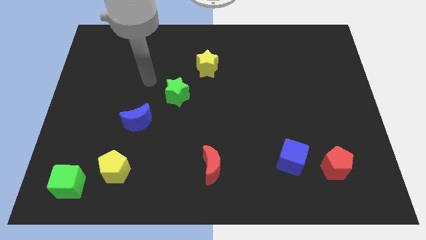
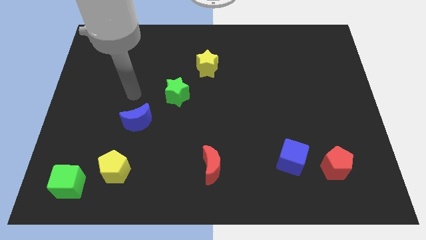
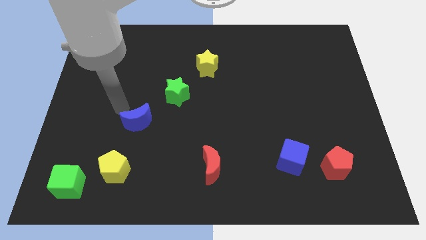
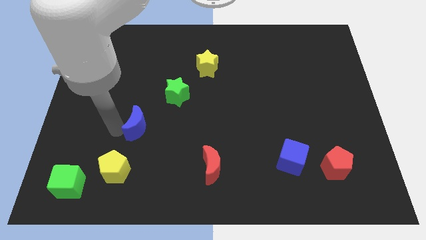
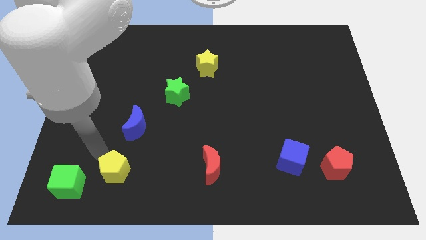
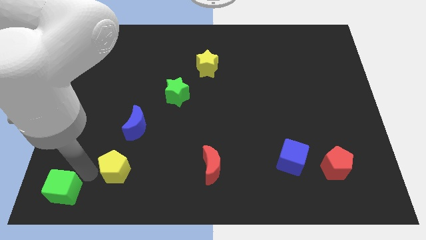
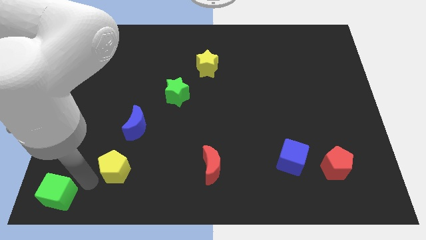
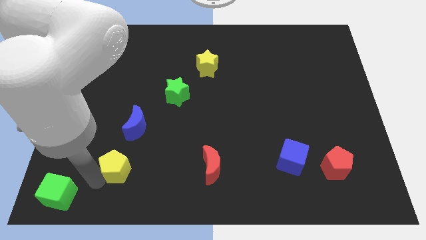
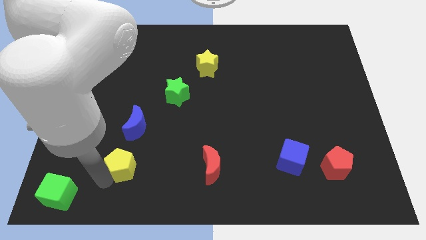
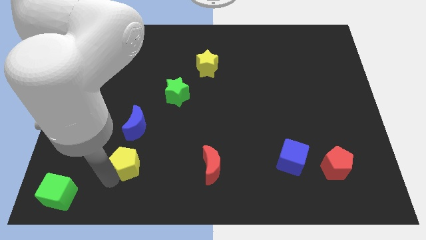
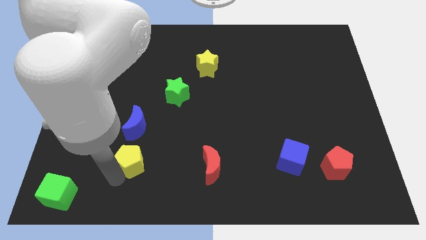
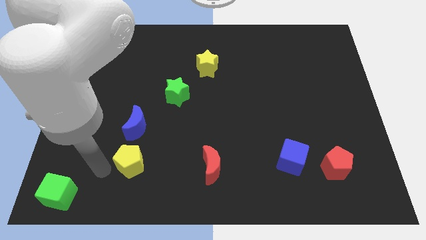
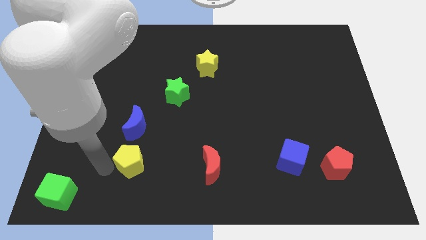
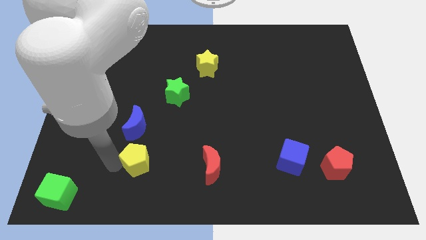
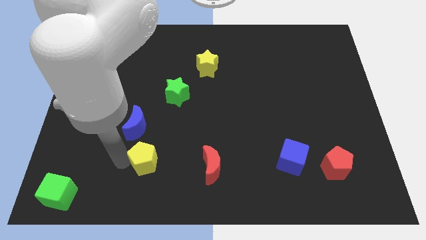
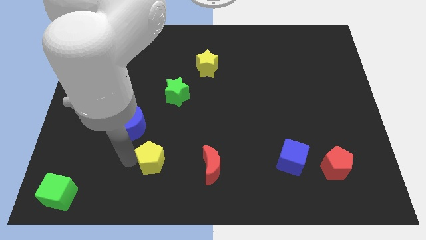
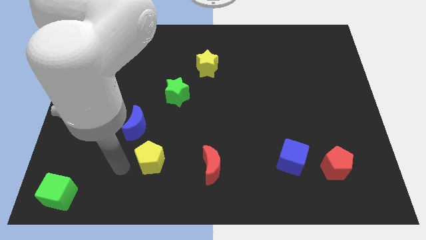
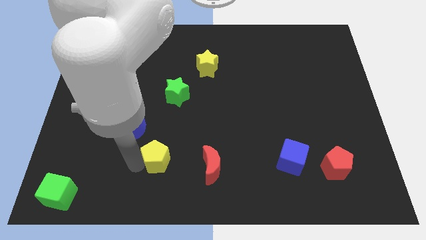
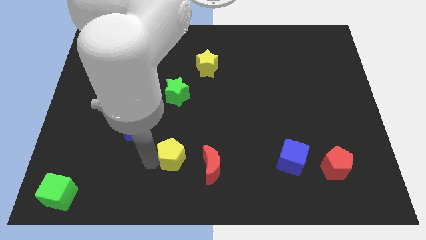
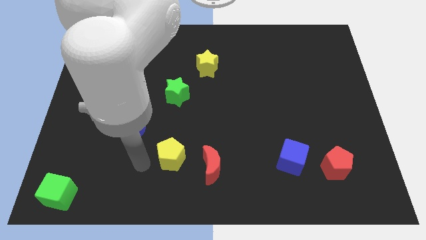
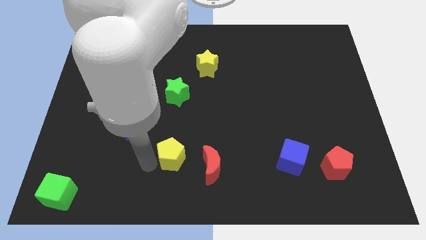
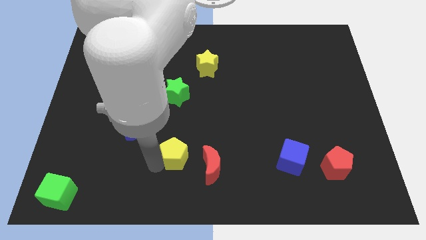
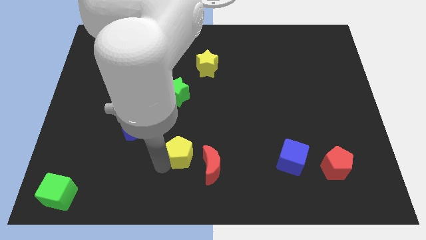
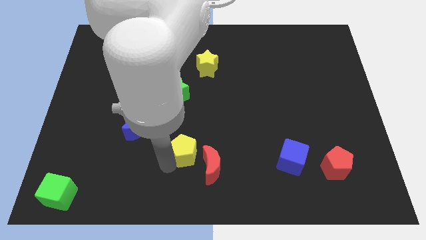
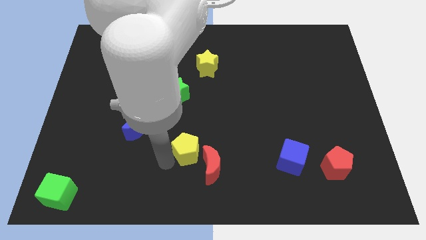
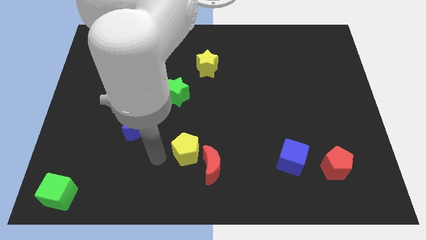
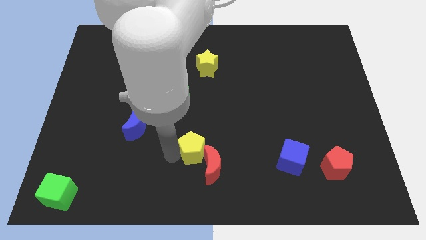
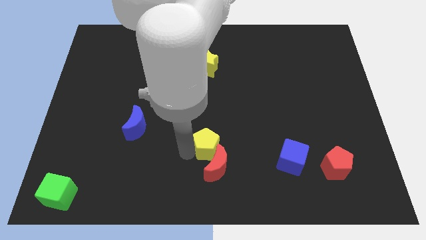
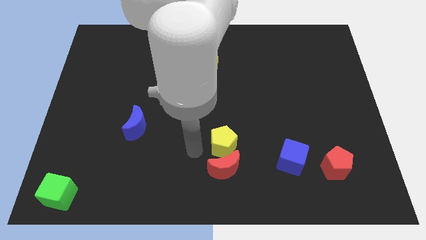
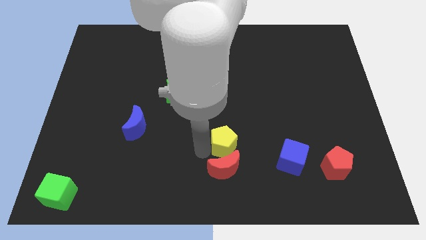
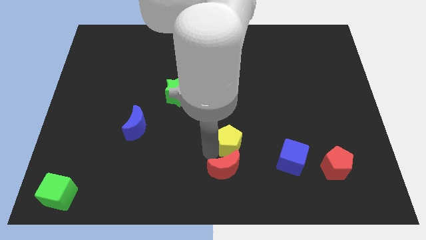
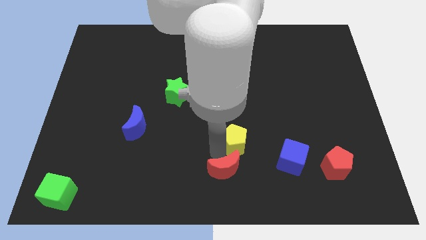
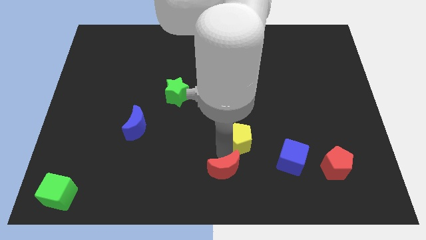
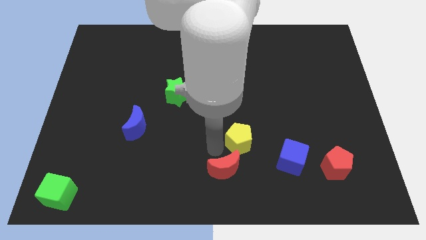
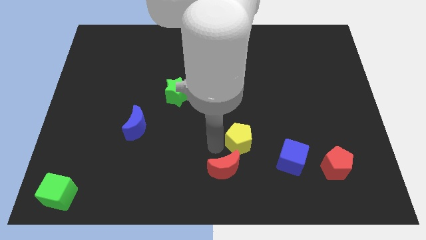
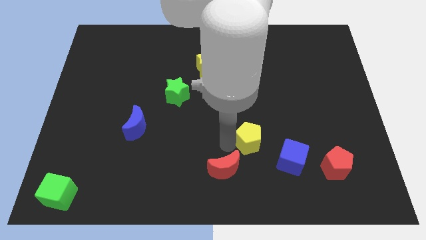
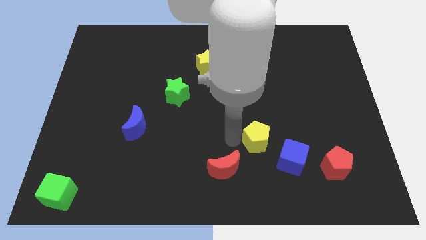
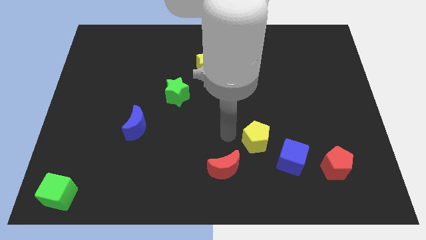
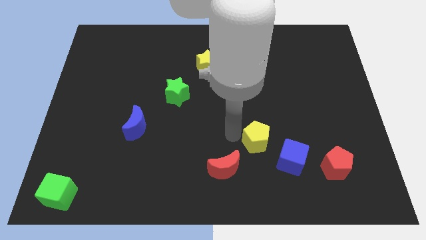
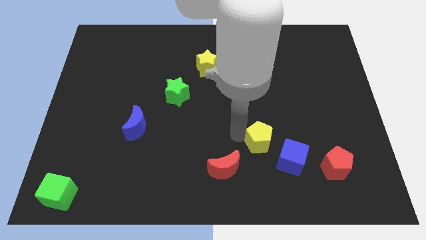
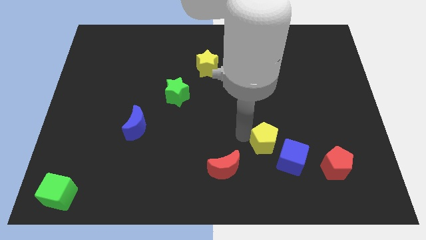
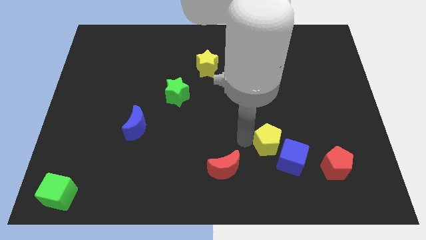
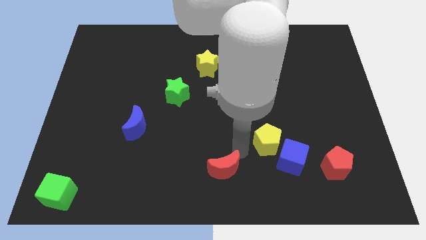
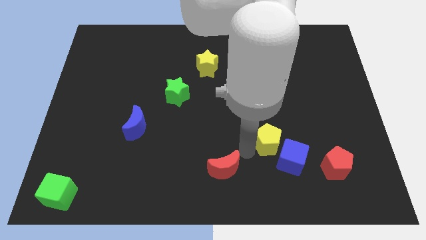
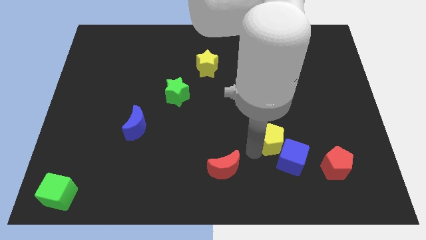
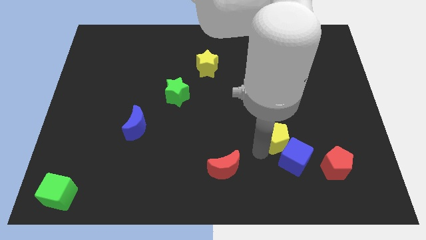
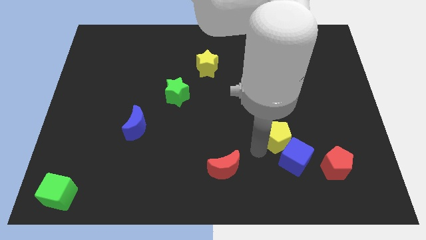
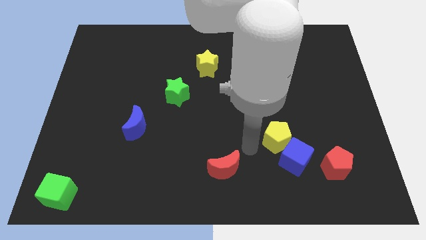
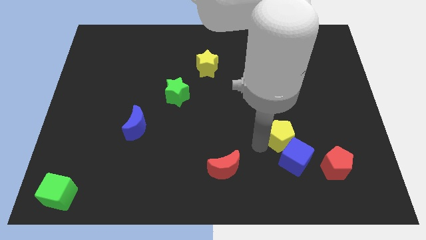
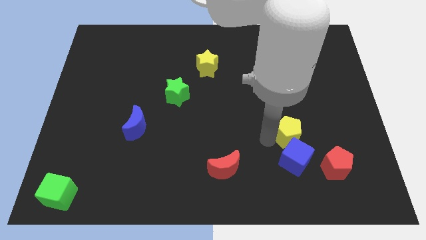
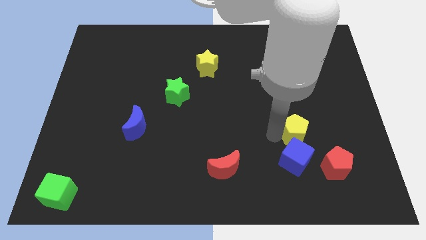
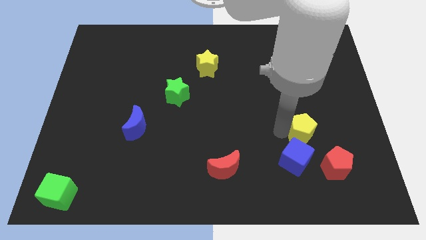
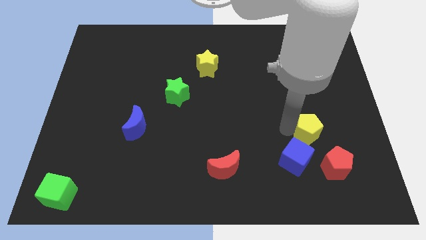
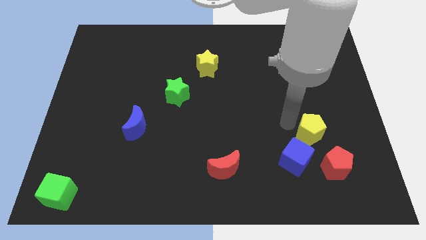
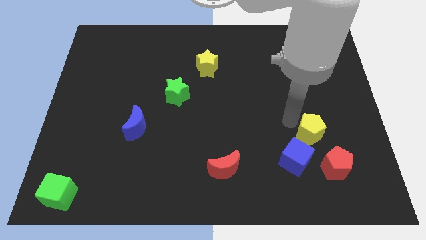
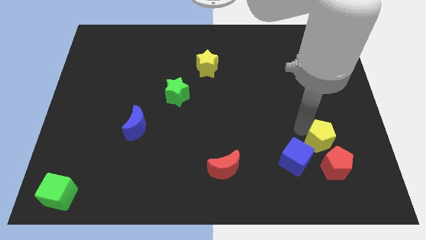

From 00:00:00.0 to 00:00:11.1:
move the yellow pentagon right of the blue cube

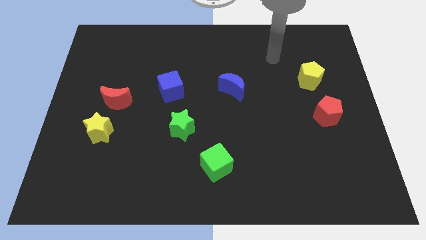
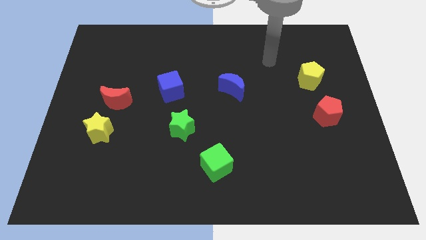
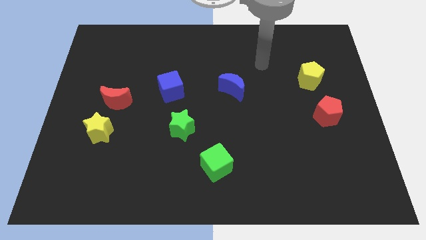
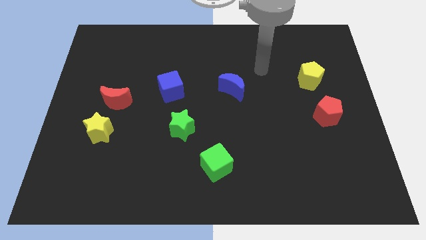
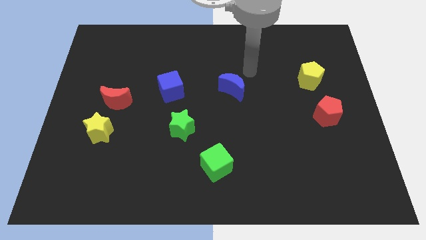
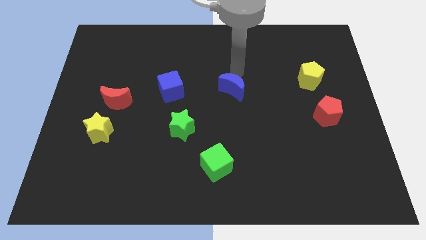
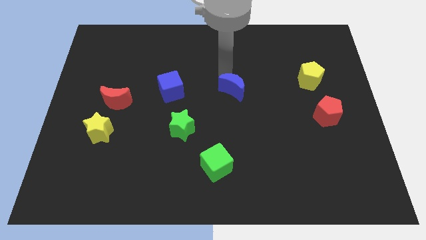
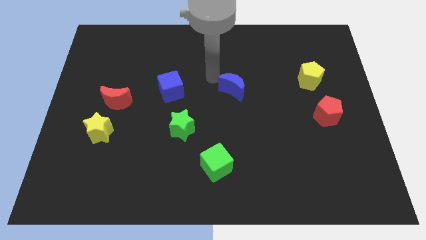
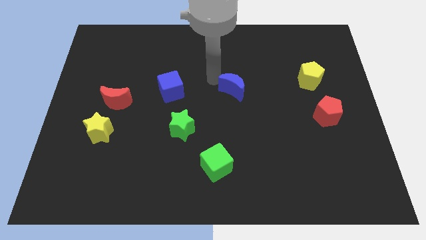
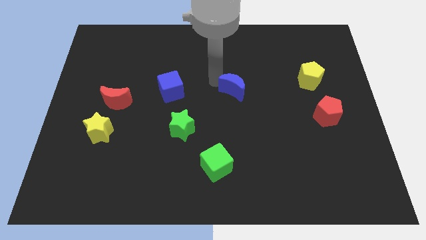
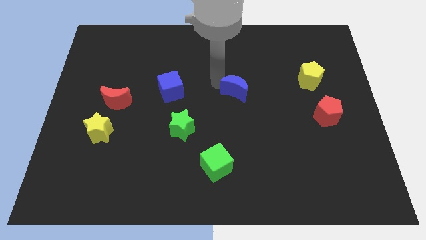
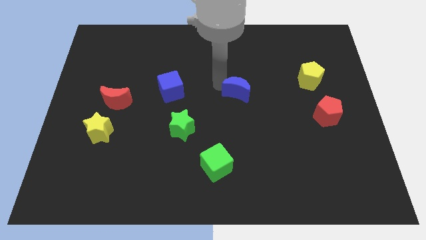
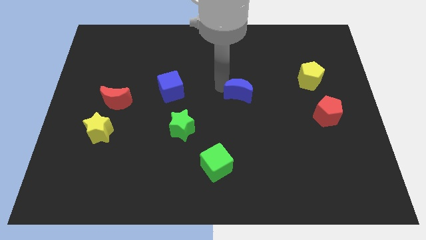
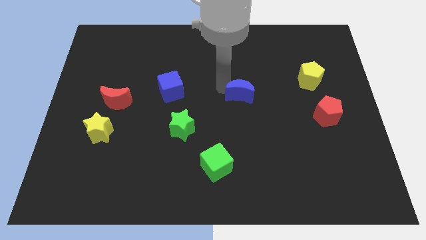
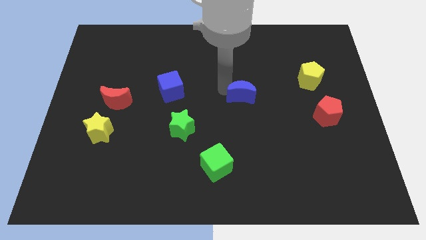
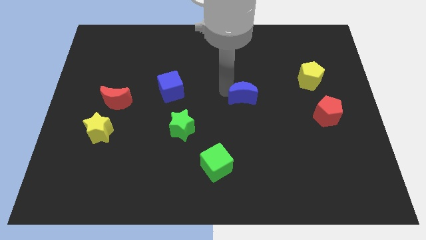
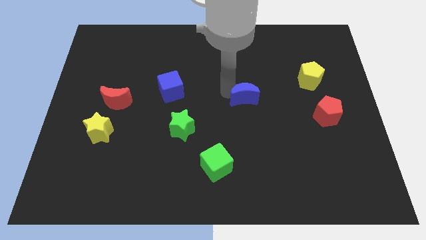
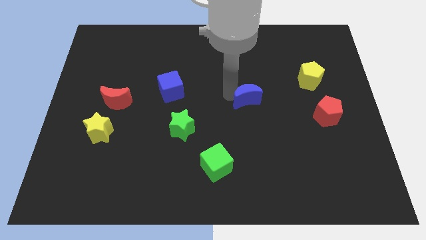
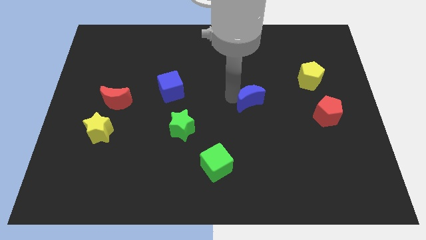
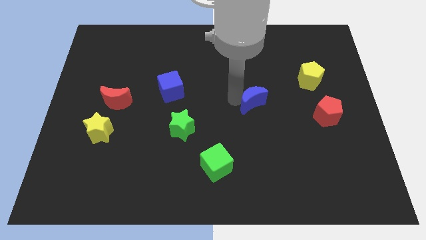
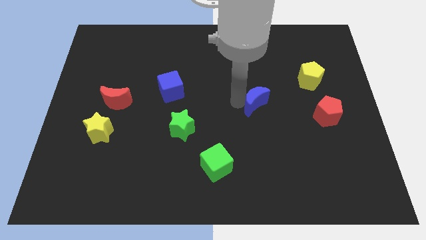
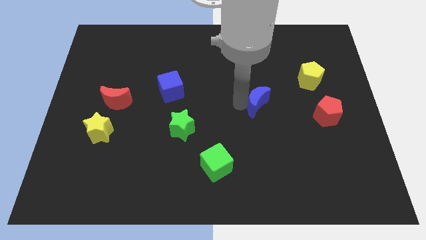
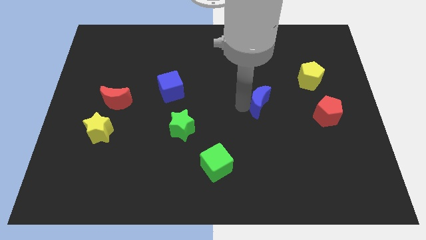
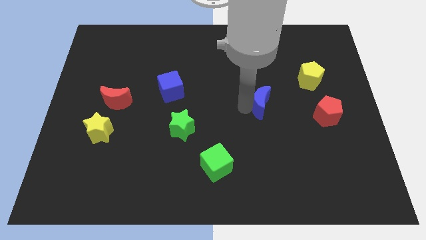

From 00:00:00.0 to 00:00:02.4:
move the blue moon to the left of the red pentagon
